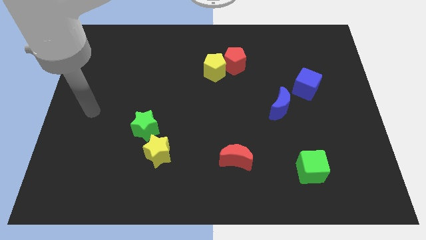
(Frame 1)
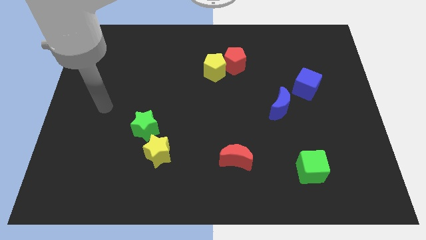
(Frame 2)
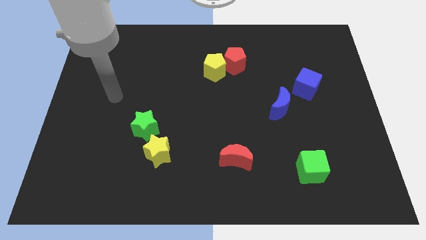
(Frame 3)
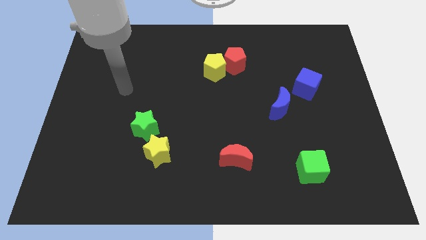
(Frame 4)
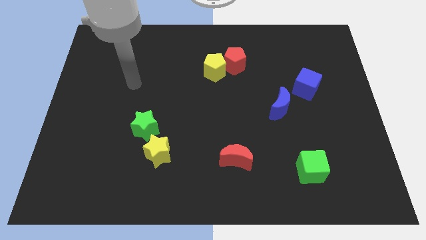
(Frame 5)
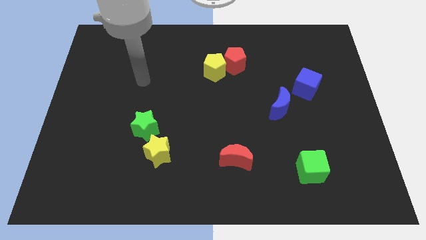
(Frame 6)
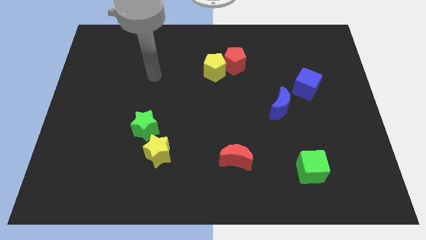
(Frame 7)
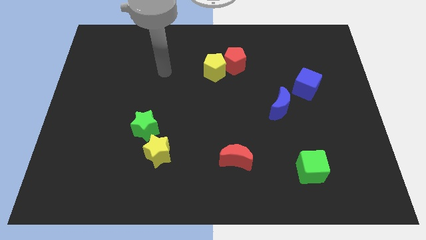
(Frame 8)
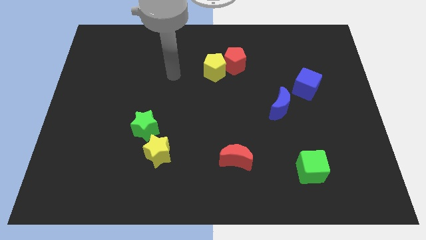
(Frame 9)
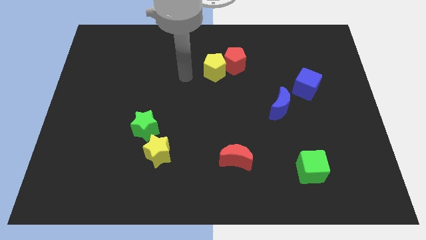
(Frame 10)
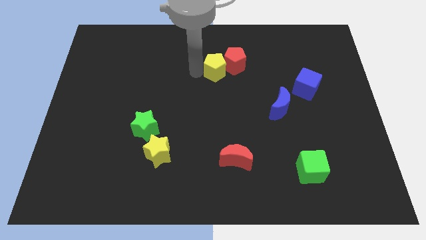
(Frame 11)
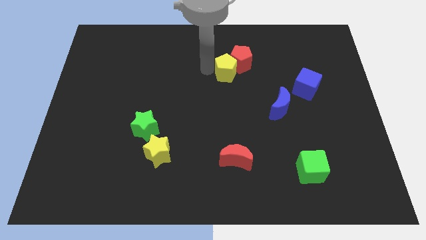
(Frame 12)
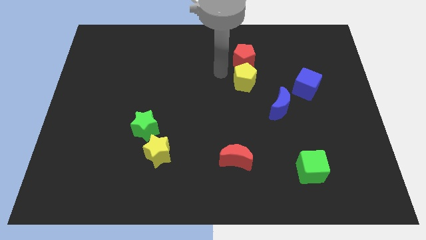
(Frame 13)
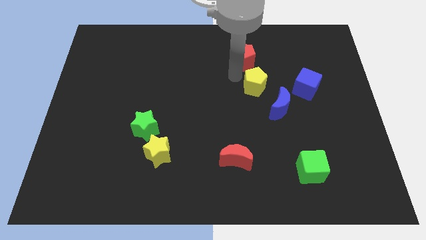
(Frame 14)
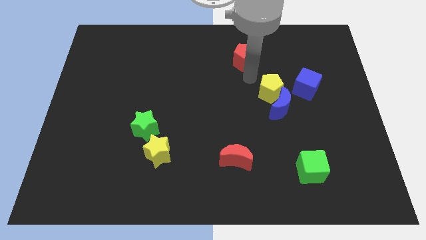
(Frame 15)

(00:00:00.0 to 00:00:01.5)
pull the red pentagon apart from the yellow pentagon

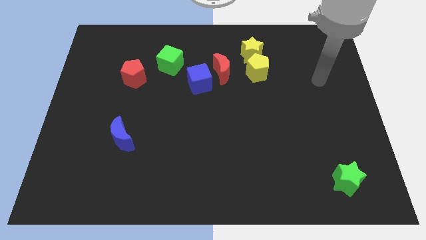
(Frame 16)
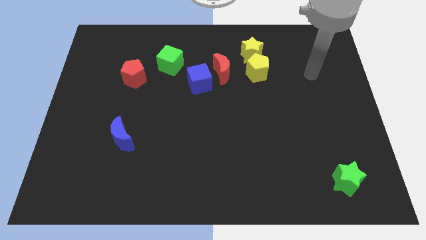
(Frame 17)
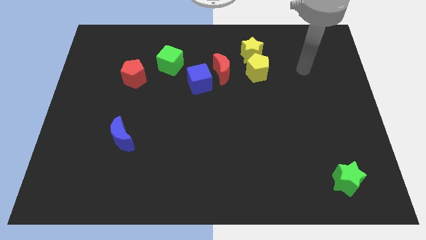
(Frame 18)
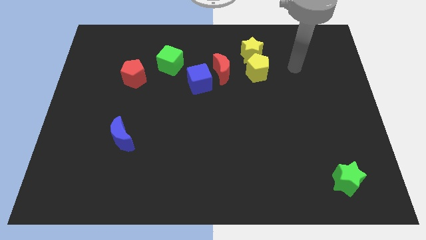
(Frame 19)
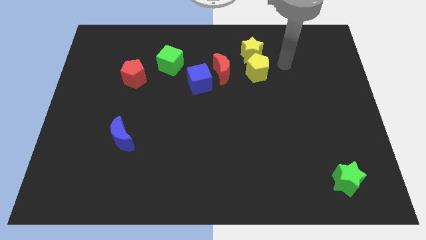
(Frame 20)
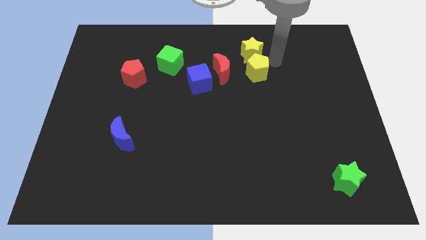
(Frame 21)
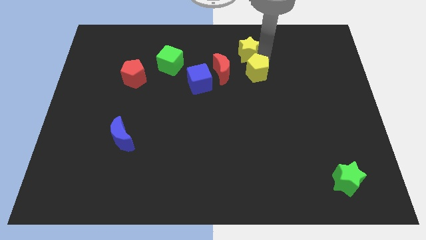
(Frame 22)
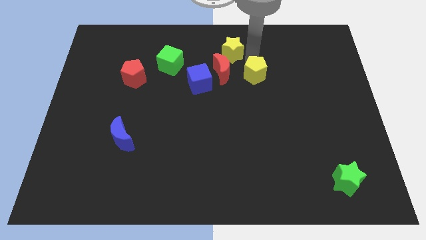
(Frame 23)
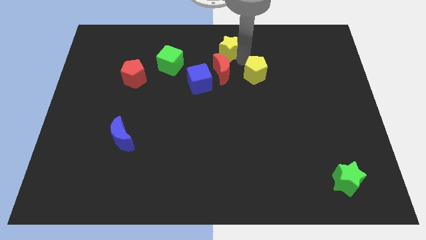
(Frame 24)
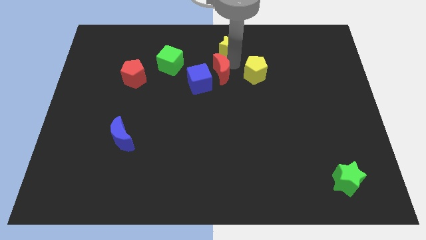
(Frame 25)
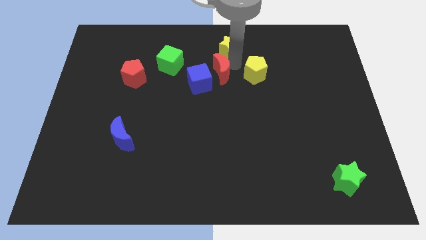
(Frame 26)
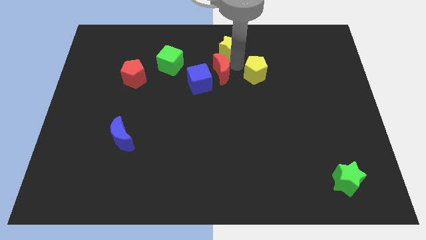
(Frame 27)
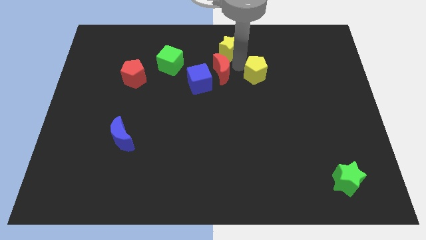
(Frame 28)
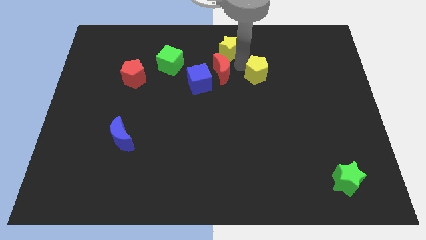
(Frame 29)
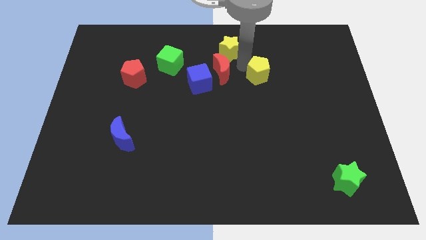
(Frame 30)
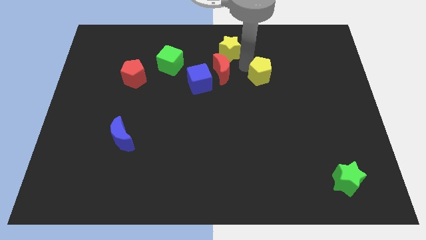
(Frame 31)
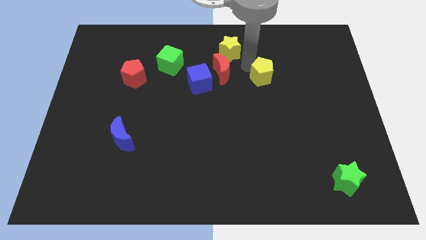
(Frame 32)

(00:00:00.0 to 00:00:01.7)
separate the yellow pentagon from the yellow star and red moon

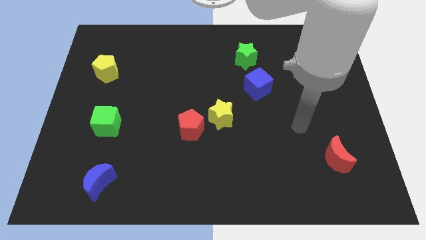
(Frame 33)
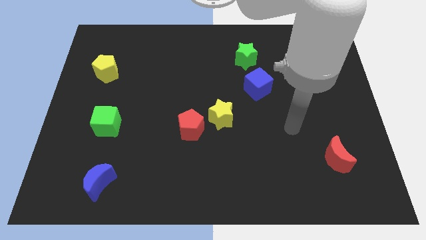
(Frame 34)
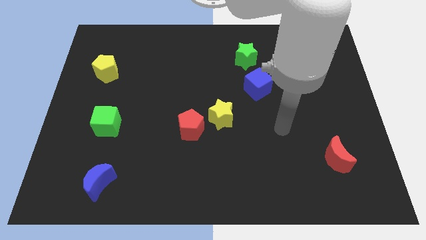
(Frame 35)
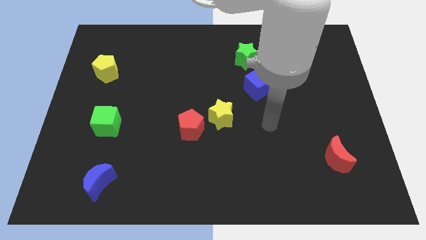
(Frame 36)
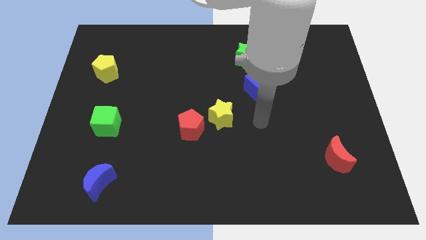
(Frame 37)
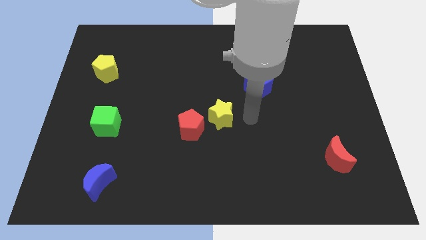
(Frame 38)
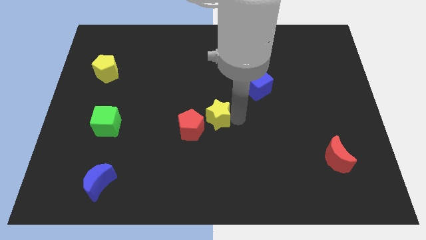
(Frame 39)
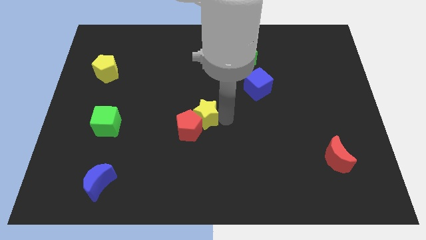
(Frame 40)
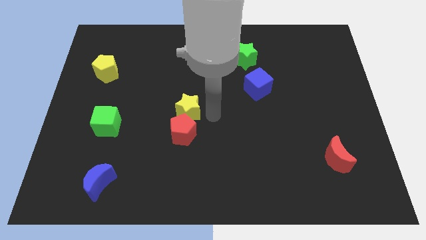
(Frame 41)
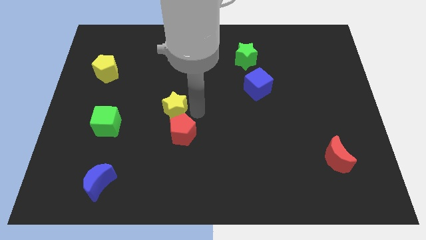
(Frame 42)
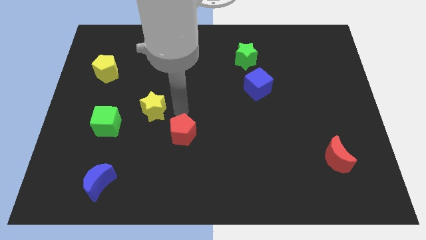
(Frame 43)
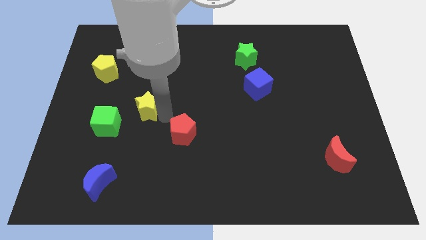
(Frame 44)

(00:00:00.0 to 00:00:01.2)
pull the red pentagon apart from the yellow star

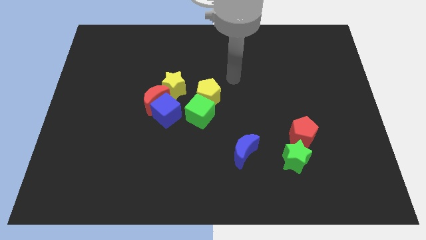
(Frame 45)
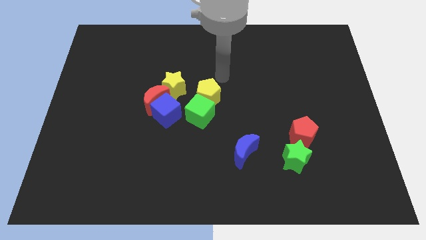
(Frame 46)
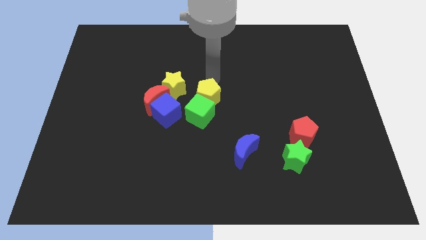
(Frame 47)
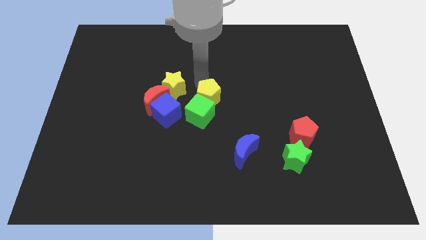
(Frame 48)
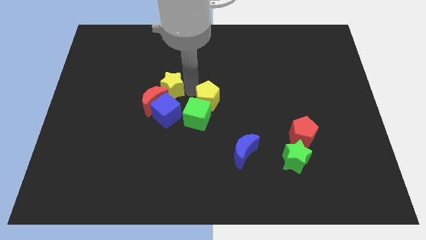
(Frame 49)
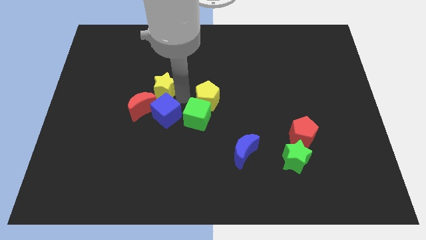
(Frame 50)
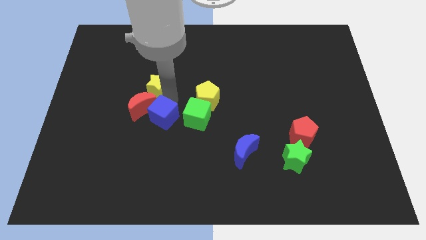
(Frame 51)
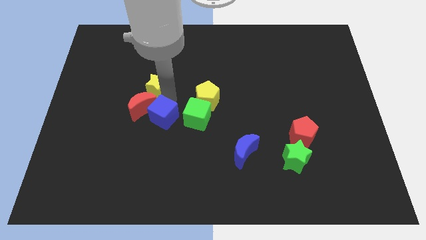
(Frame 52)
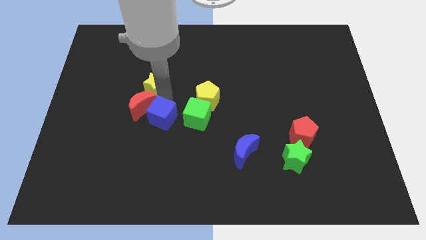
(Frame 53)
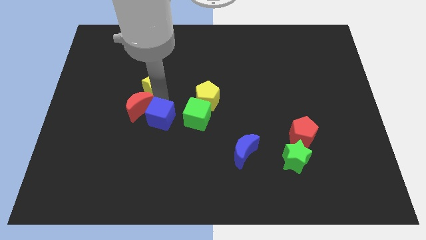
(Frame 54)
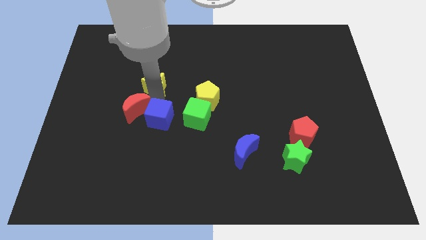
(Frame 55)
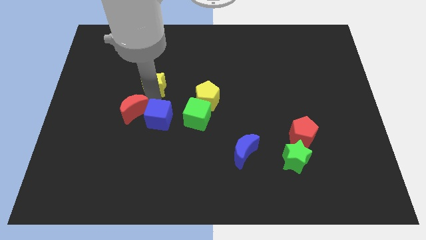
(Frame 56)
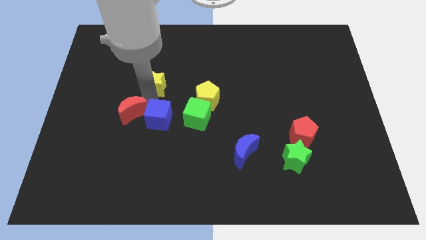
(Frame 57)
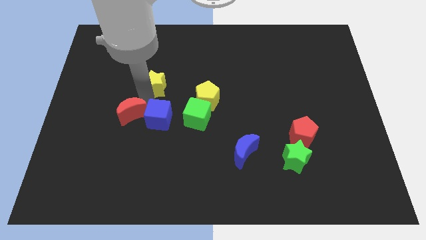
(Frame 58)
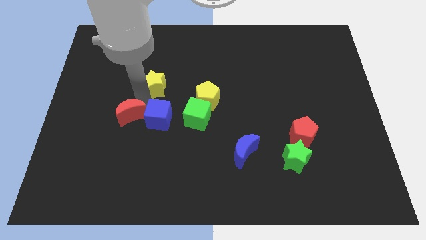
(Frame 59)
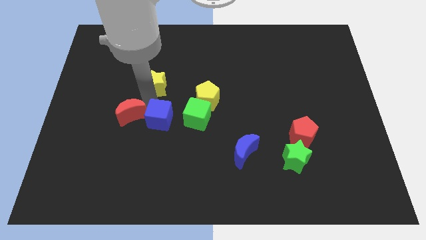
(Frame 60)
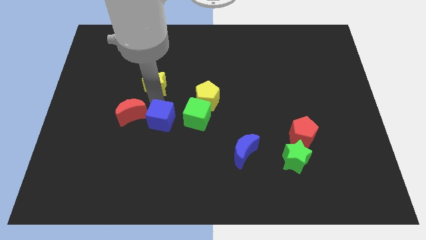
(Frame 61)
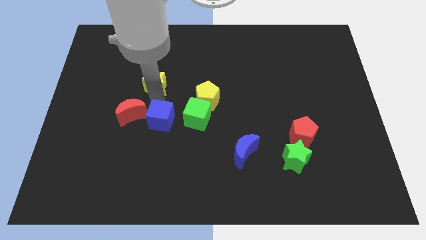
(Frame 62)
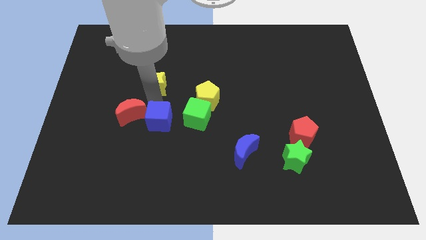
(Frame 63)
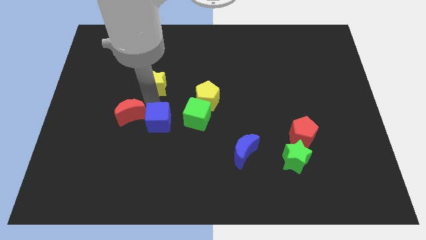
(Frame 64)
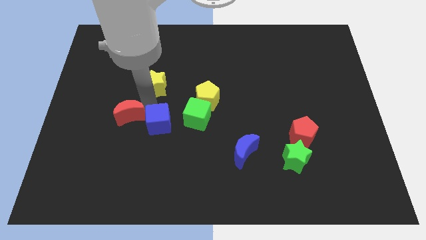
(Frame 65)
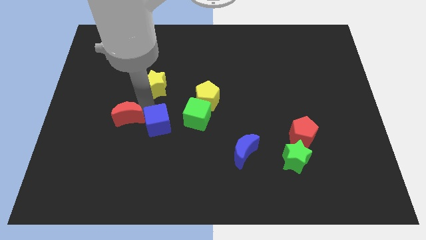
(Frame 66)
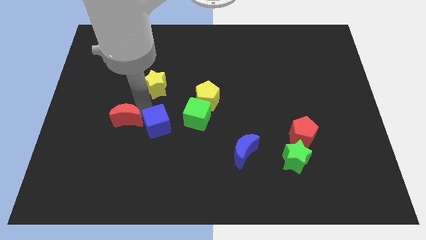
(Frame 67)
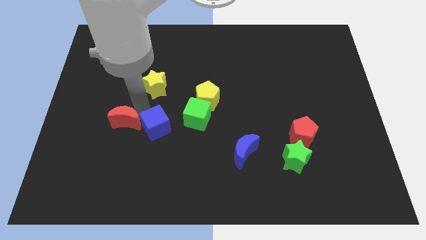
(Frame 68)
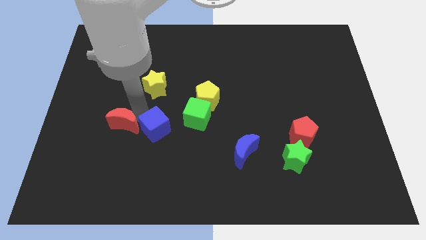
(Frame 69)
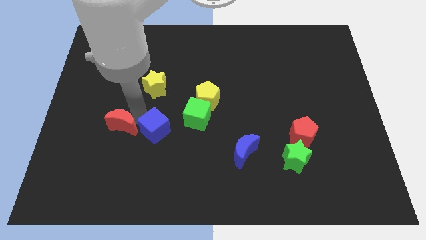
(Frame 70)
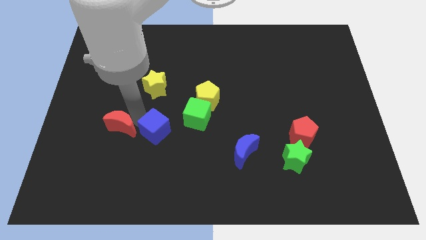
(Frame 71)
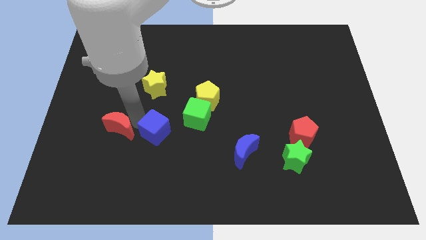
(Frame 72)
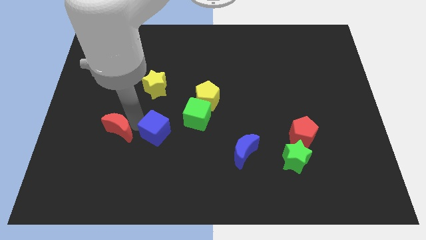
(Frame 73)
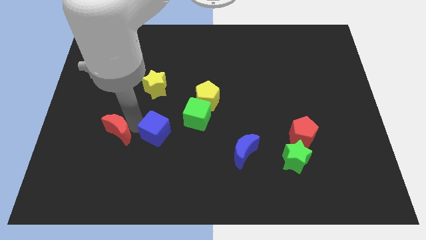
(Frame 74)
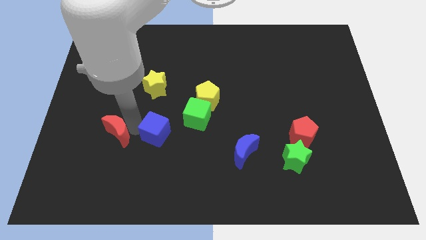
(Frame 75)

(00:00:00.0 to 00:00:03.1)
move the red moon away from the blue cube and yellow star

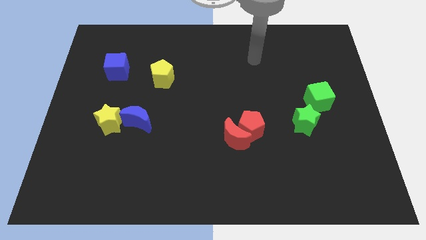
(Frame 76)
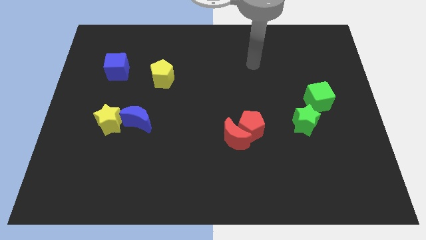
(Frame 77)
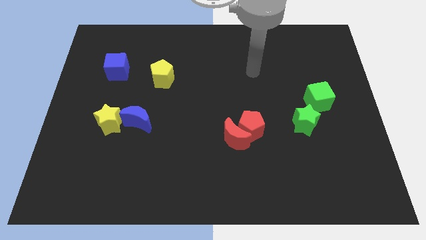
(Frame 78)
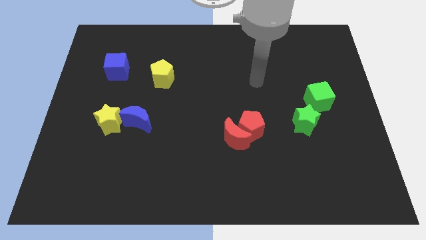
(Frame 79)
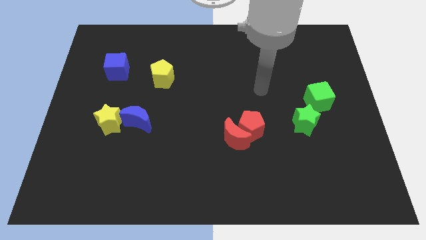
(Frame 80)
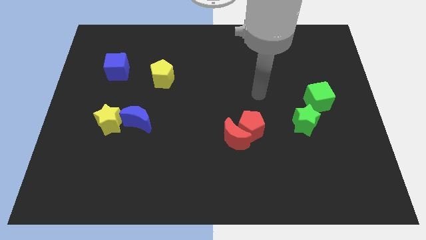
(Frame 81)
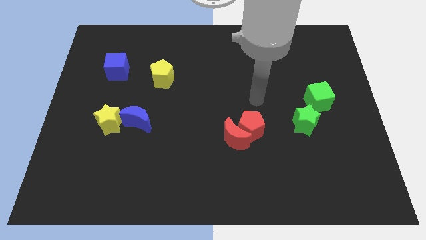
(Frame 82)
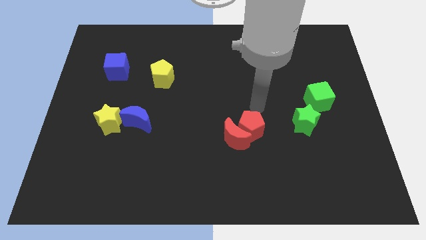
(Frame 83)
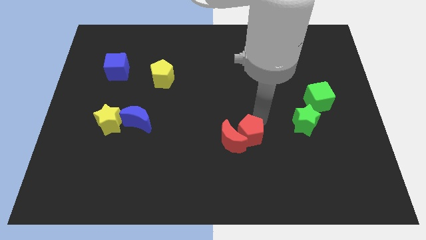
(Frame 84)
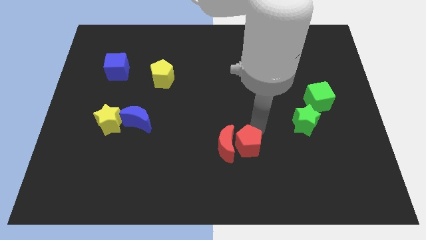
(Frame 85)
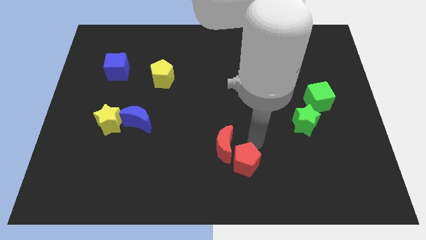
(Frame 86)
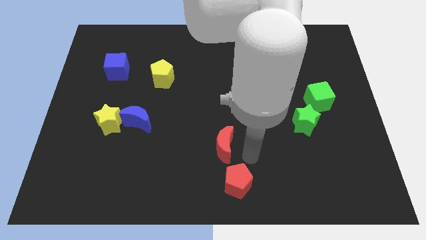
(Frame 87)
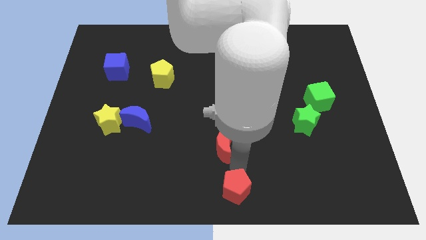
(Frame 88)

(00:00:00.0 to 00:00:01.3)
separate the red moon from the red pentagon

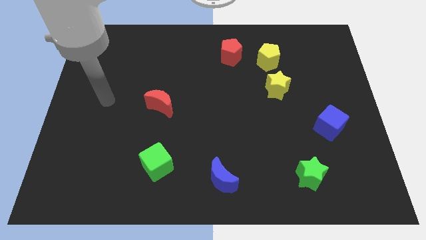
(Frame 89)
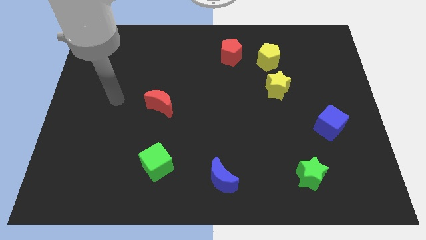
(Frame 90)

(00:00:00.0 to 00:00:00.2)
separate the yellow star from the yellow pentagon

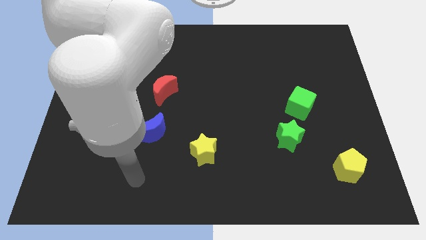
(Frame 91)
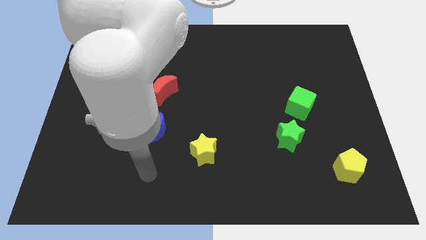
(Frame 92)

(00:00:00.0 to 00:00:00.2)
pull the green cube apart from the green star

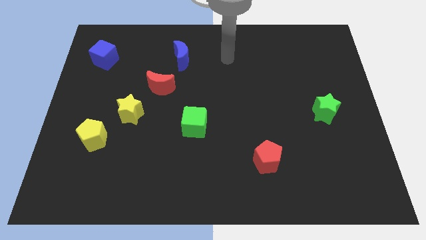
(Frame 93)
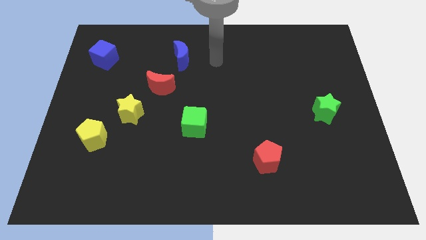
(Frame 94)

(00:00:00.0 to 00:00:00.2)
move the yellow pentagon away from the yellow star
